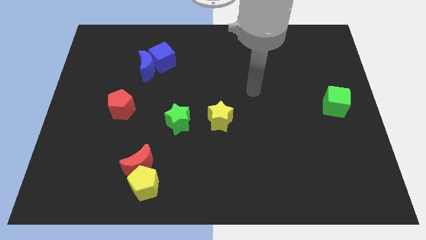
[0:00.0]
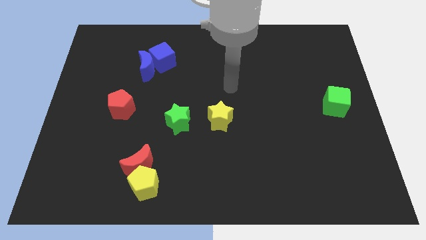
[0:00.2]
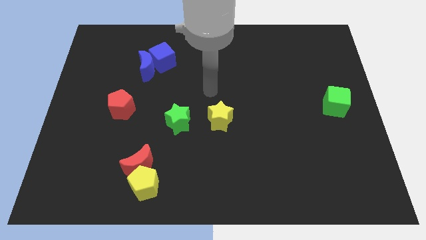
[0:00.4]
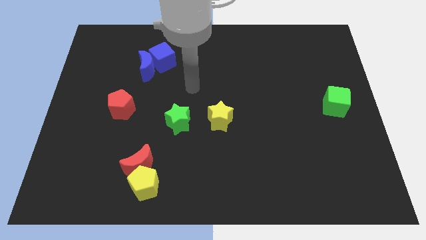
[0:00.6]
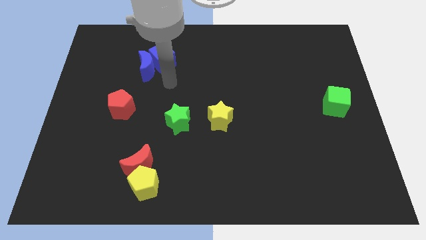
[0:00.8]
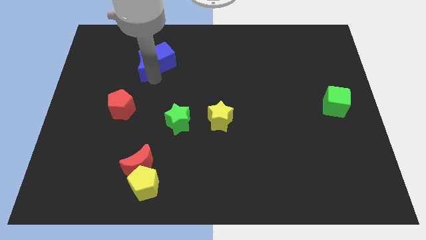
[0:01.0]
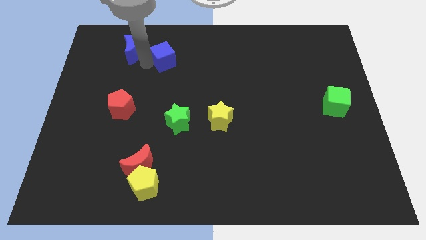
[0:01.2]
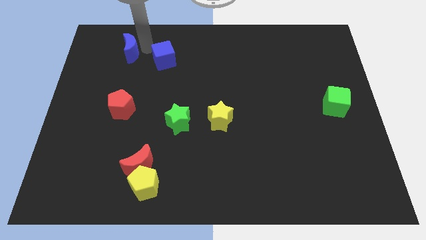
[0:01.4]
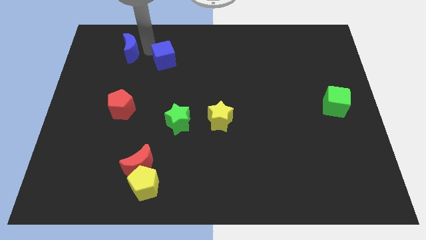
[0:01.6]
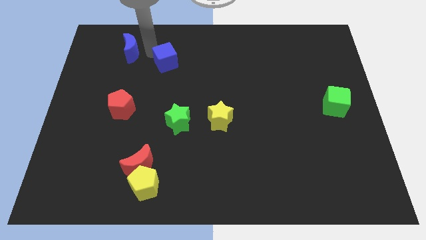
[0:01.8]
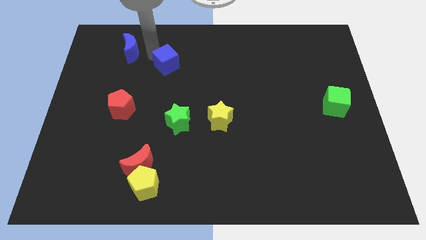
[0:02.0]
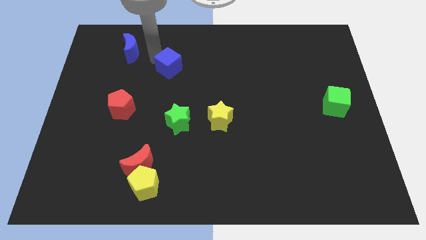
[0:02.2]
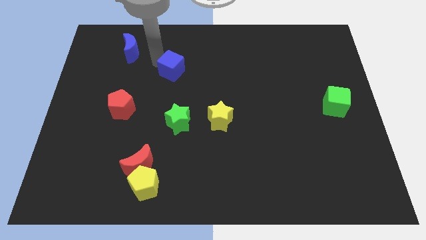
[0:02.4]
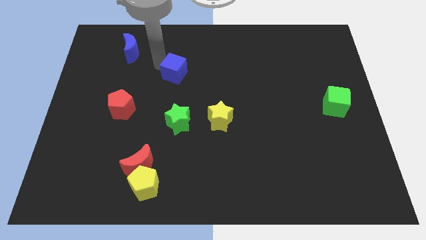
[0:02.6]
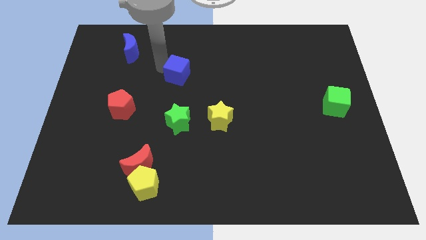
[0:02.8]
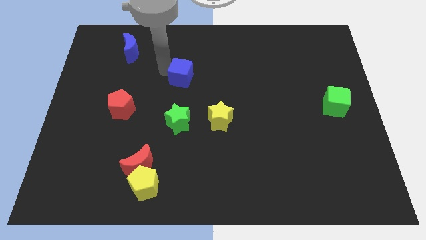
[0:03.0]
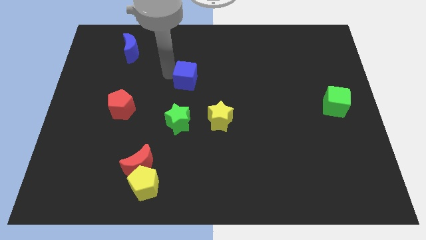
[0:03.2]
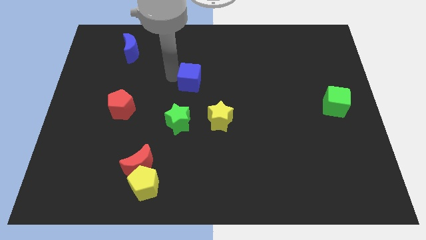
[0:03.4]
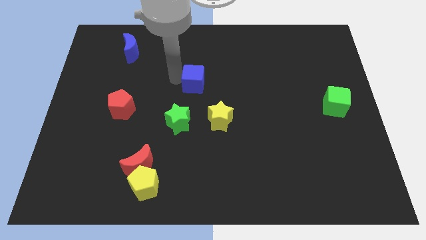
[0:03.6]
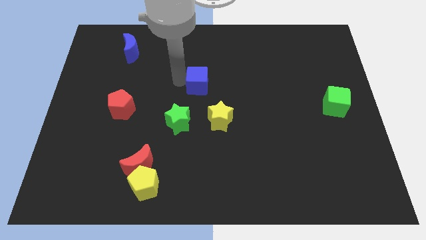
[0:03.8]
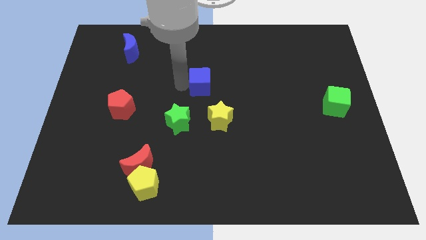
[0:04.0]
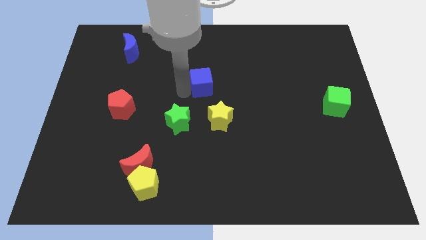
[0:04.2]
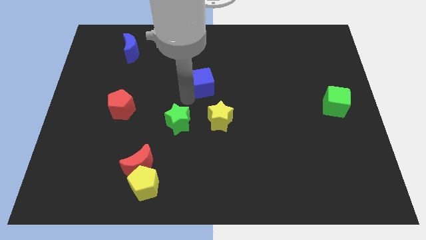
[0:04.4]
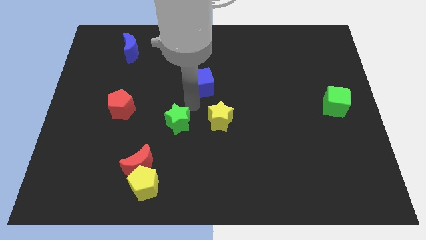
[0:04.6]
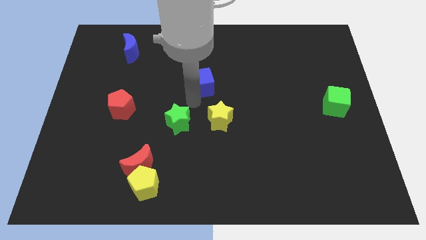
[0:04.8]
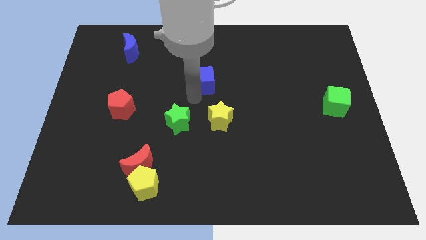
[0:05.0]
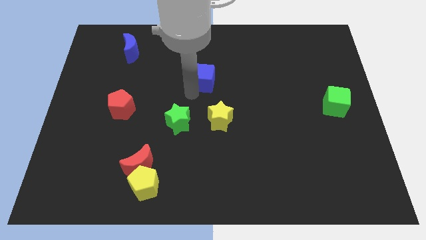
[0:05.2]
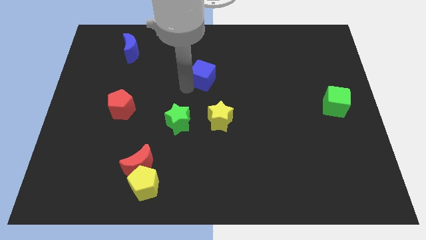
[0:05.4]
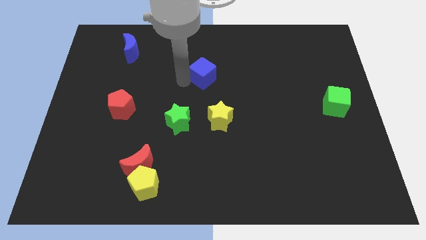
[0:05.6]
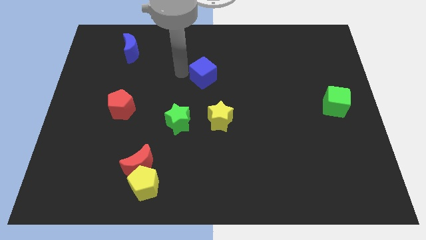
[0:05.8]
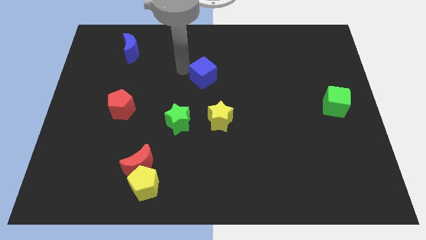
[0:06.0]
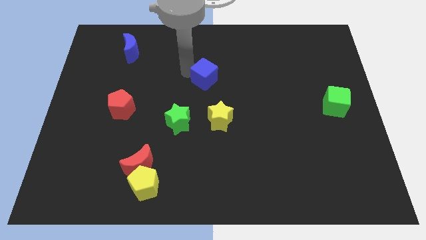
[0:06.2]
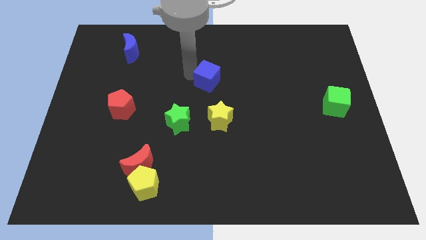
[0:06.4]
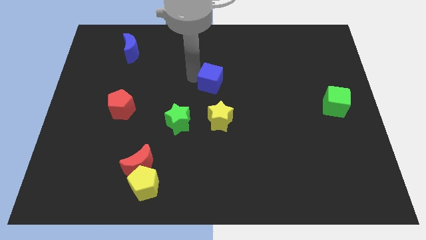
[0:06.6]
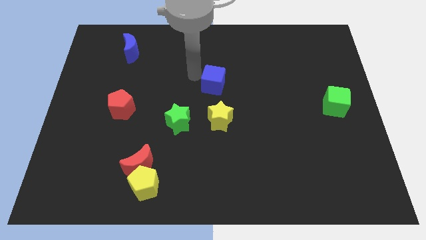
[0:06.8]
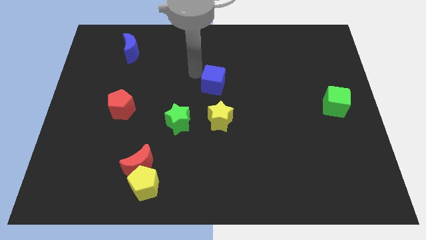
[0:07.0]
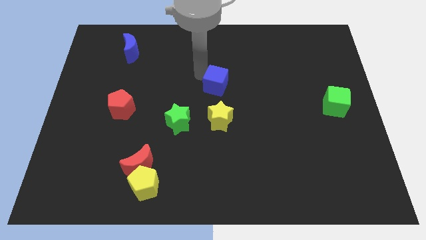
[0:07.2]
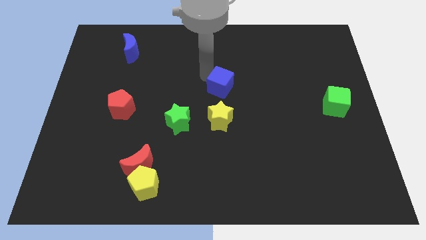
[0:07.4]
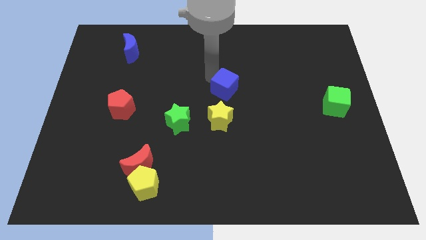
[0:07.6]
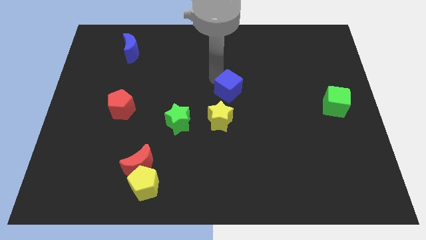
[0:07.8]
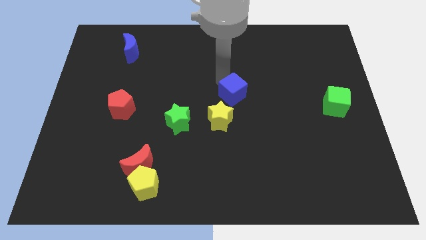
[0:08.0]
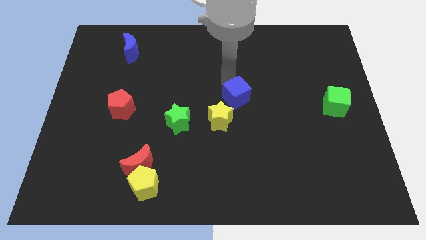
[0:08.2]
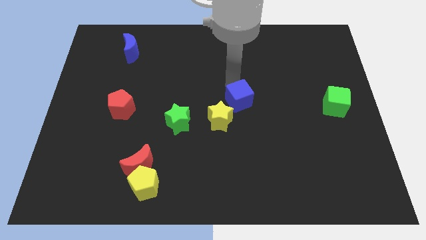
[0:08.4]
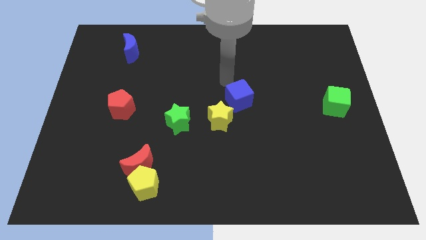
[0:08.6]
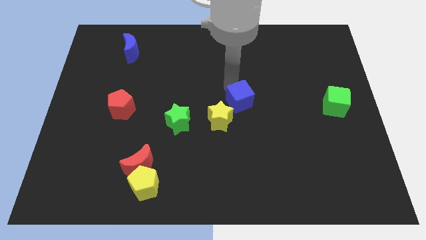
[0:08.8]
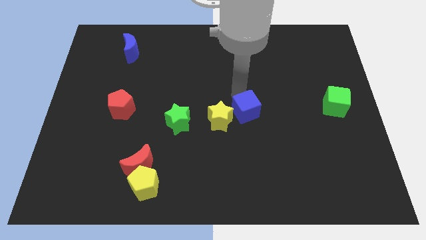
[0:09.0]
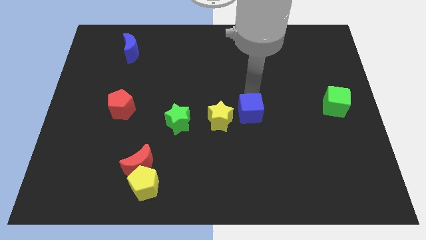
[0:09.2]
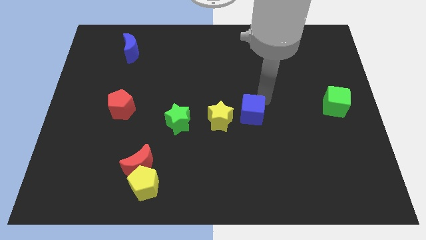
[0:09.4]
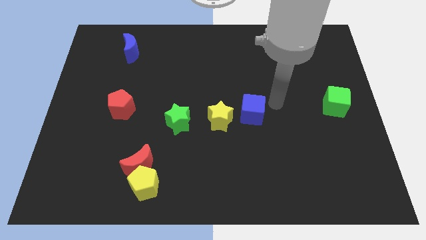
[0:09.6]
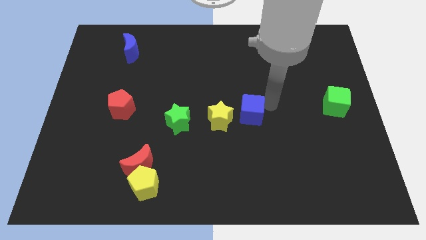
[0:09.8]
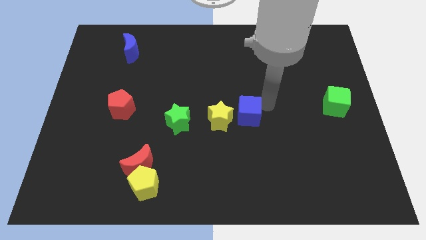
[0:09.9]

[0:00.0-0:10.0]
move the blue cube right of the green star

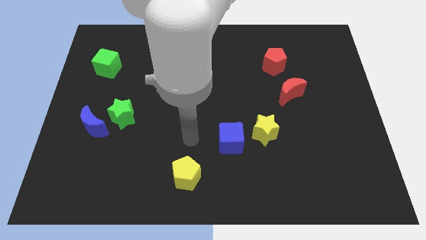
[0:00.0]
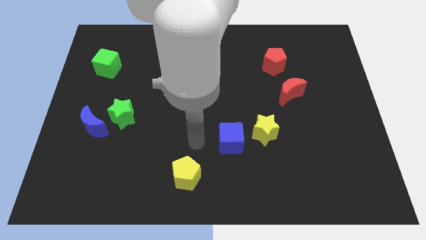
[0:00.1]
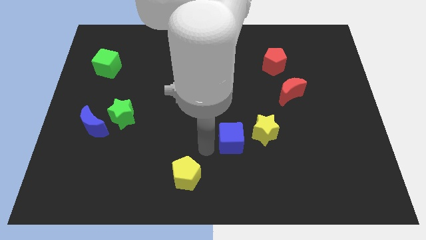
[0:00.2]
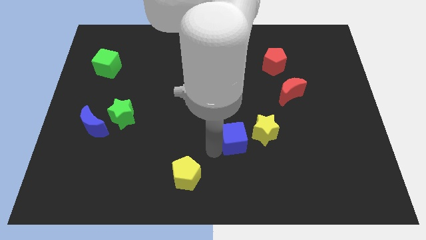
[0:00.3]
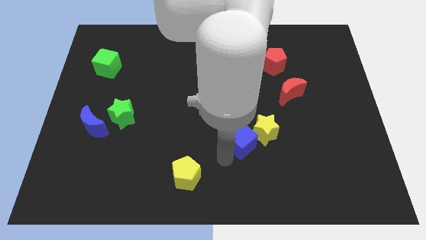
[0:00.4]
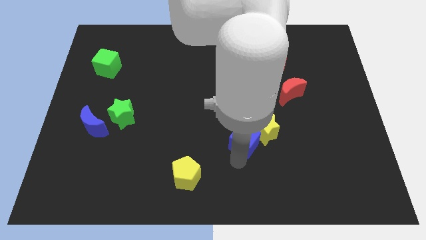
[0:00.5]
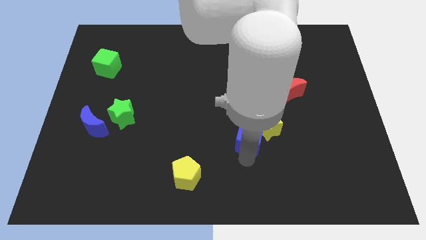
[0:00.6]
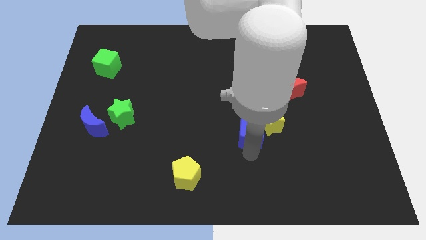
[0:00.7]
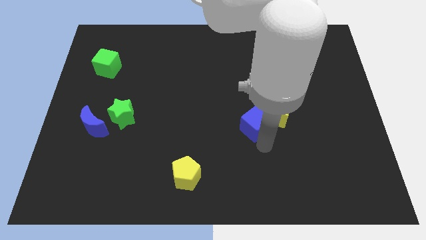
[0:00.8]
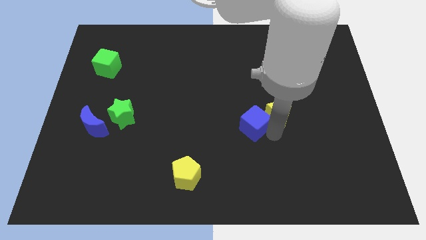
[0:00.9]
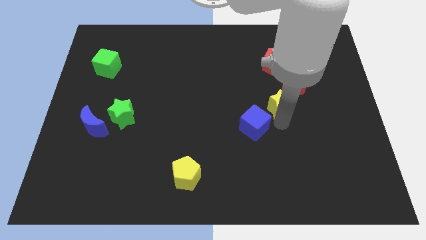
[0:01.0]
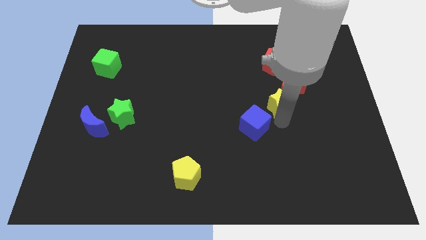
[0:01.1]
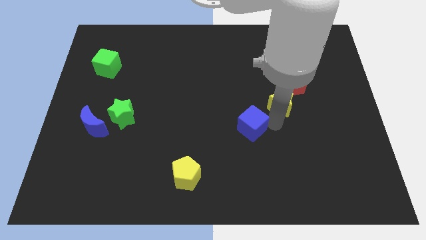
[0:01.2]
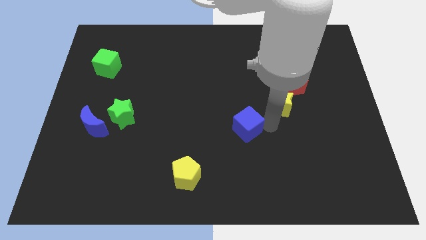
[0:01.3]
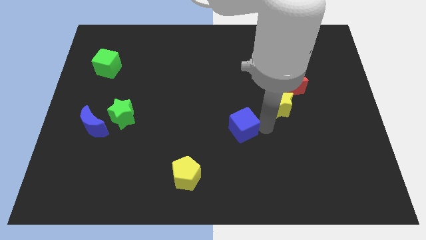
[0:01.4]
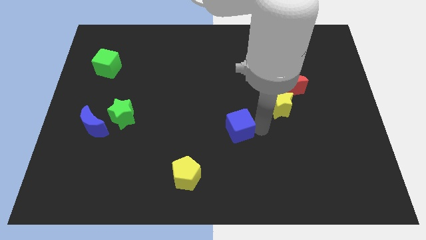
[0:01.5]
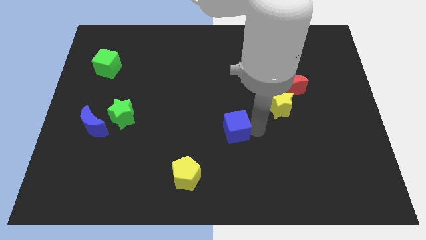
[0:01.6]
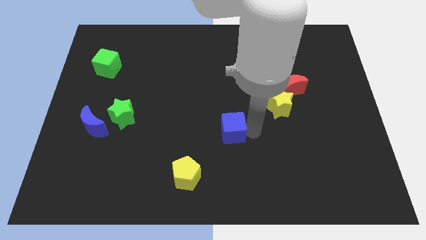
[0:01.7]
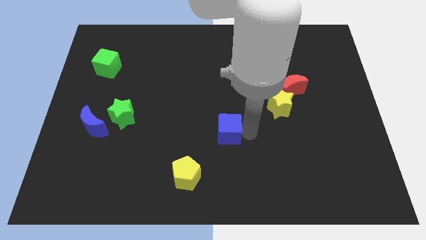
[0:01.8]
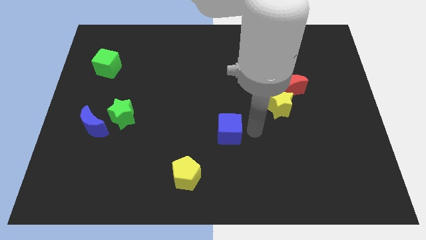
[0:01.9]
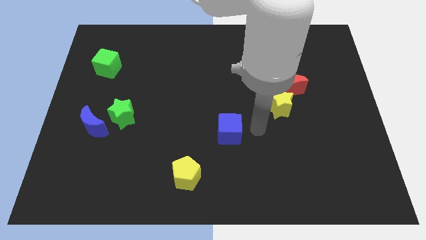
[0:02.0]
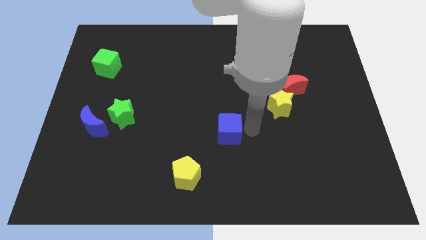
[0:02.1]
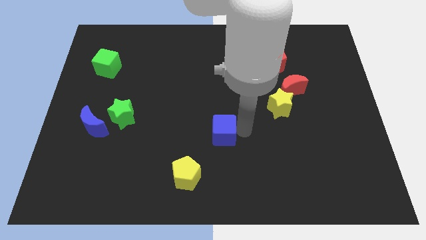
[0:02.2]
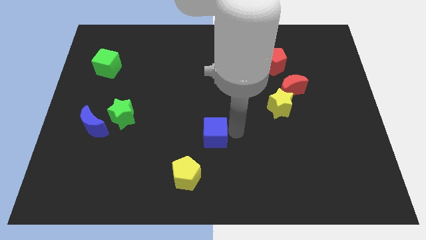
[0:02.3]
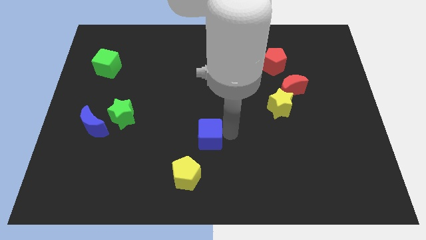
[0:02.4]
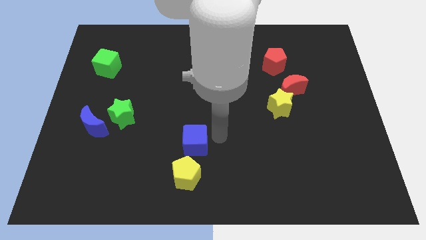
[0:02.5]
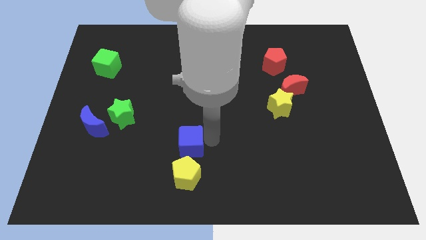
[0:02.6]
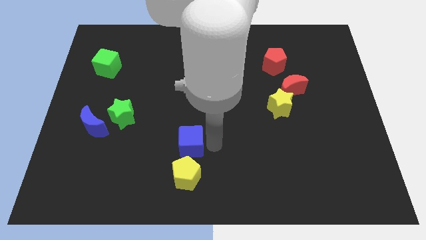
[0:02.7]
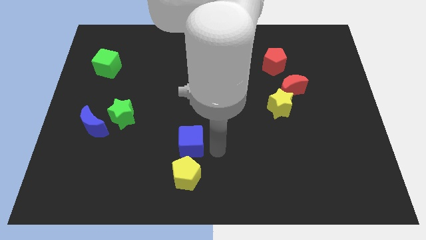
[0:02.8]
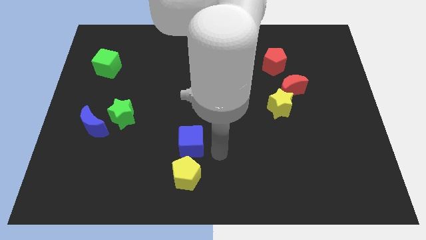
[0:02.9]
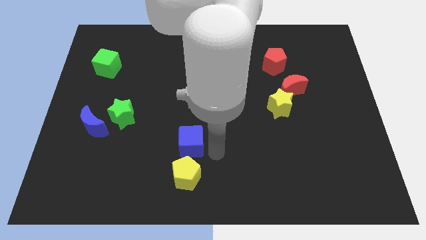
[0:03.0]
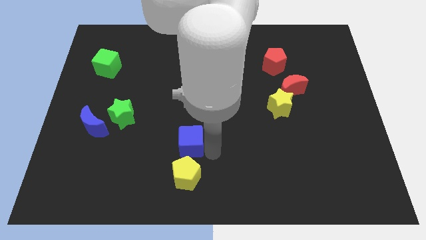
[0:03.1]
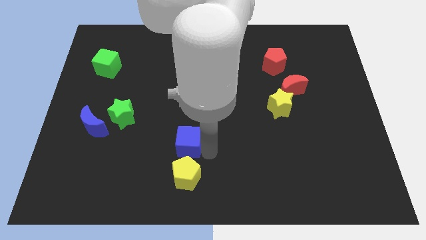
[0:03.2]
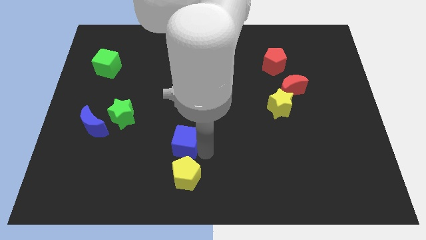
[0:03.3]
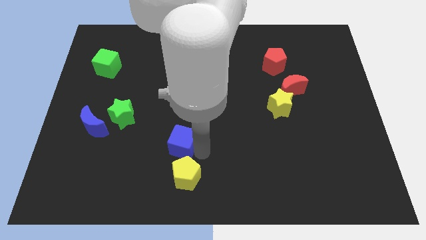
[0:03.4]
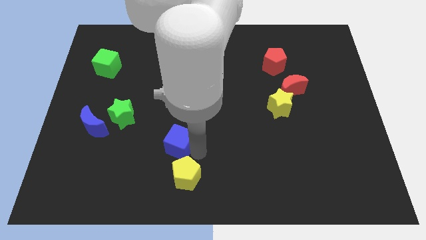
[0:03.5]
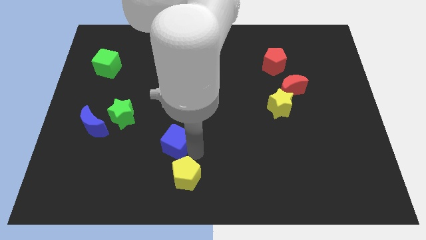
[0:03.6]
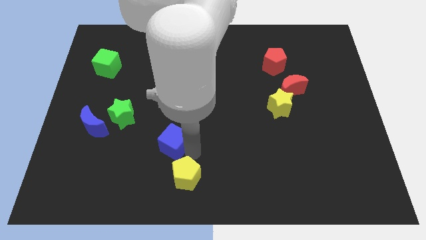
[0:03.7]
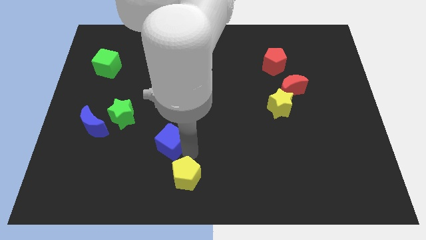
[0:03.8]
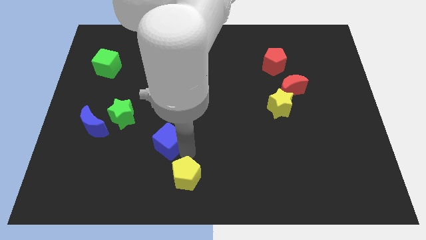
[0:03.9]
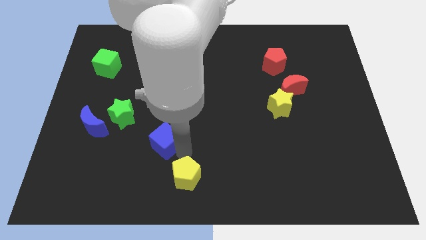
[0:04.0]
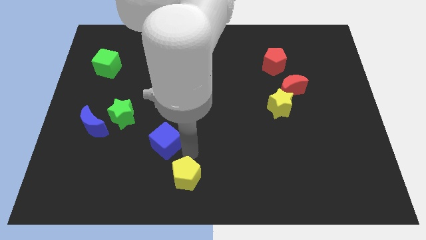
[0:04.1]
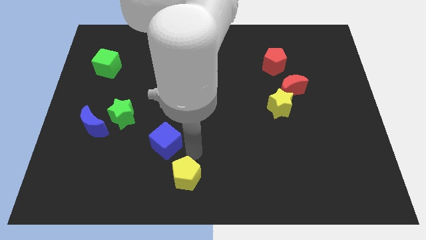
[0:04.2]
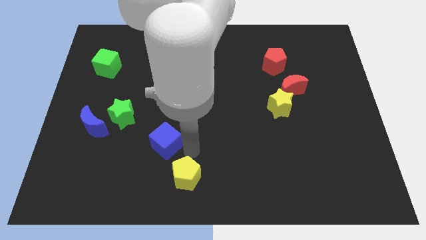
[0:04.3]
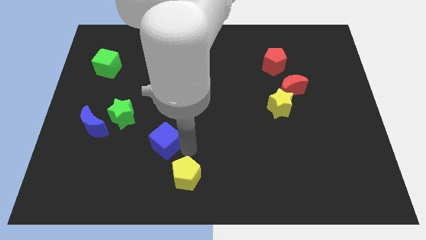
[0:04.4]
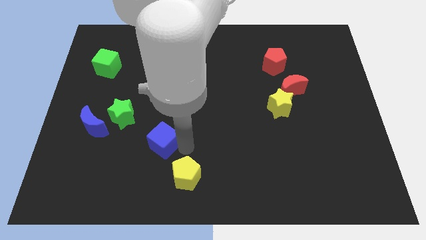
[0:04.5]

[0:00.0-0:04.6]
slide the blue cube to the bottom right side of the green star
